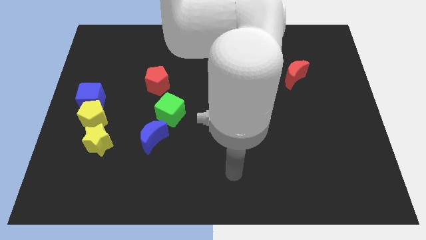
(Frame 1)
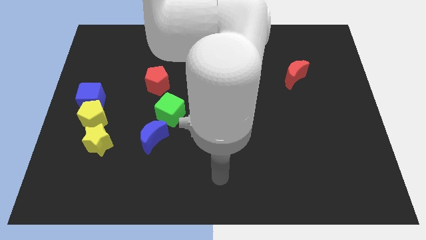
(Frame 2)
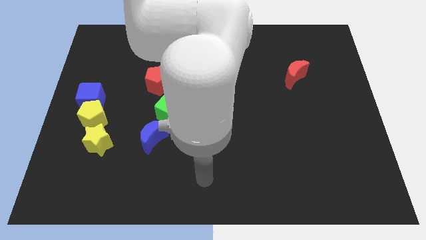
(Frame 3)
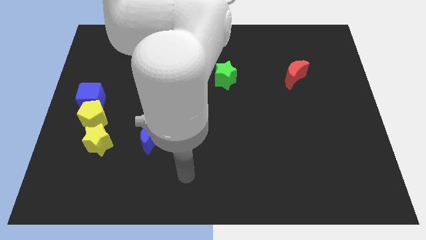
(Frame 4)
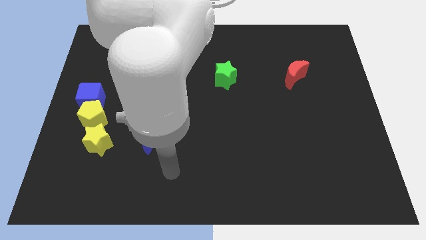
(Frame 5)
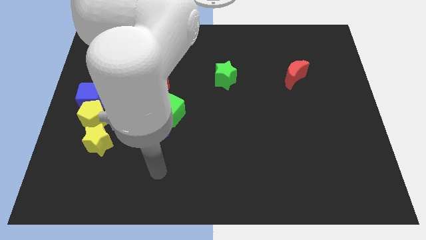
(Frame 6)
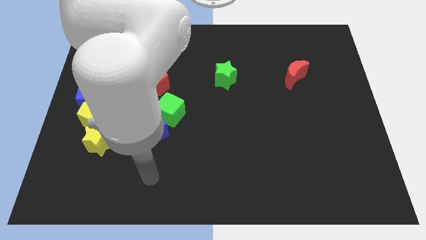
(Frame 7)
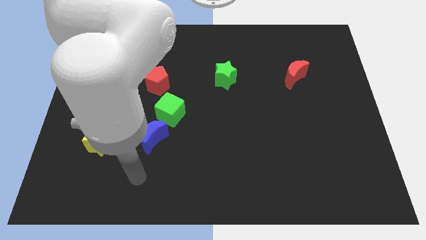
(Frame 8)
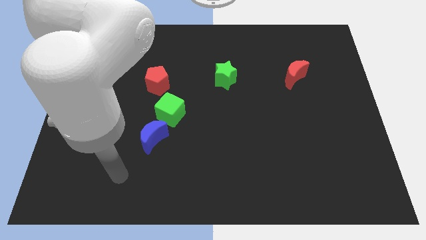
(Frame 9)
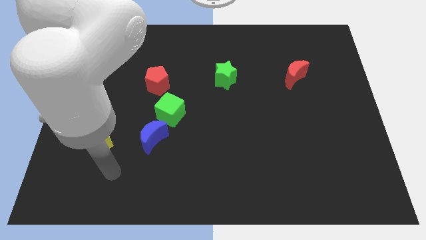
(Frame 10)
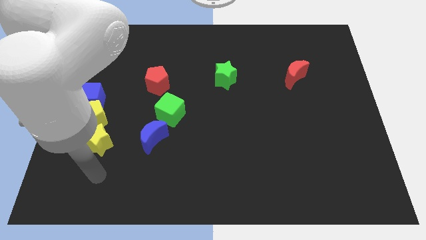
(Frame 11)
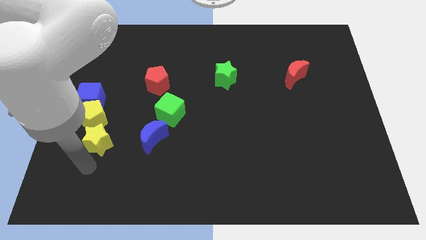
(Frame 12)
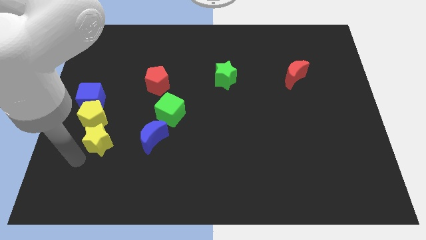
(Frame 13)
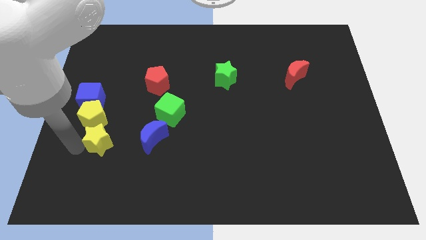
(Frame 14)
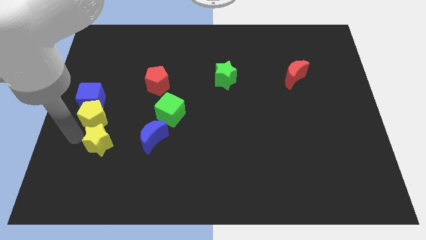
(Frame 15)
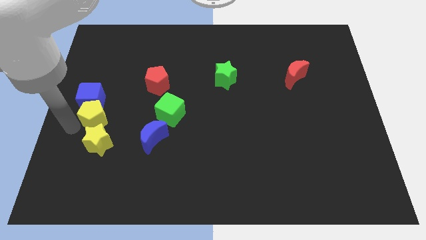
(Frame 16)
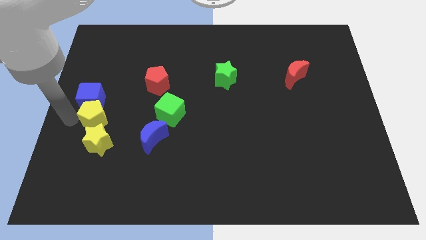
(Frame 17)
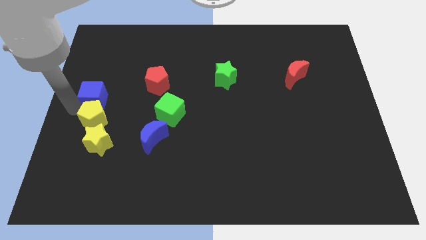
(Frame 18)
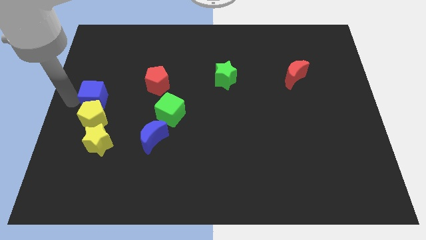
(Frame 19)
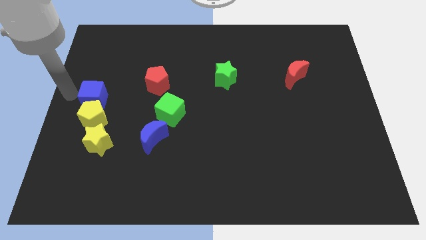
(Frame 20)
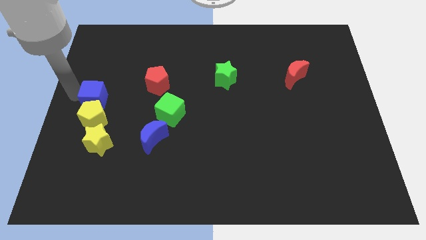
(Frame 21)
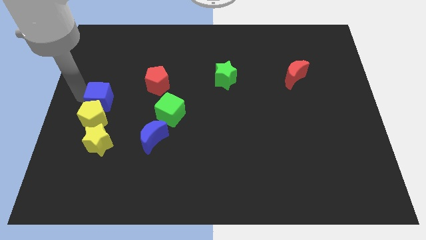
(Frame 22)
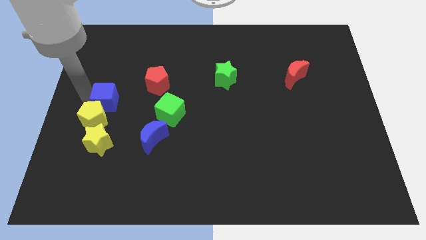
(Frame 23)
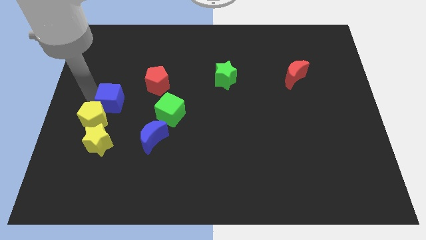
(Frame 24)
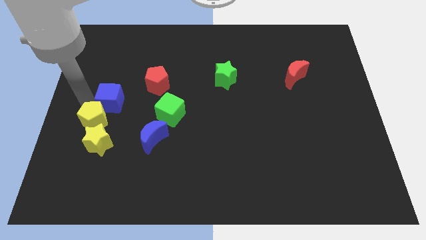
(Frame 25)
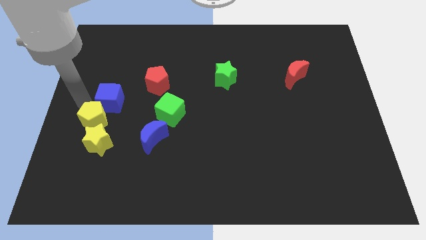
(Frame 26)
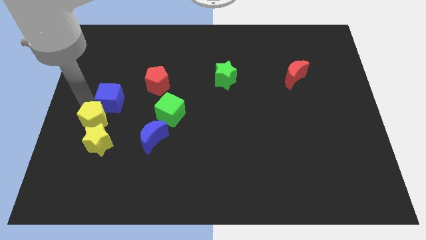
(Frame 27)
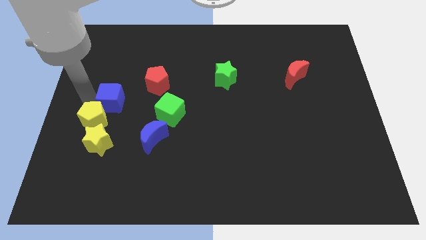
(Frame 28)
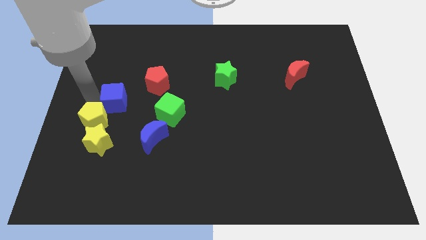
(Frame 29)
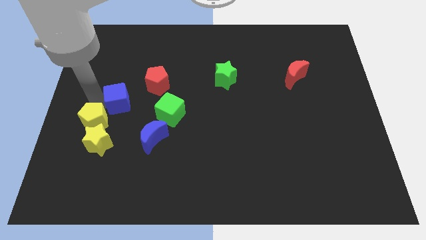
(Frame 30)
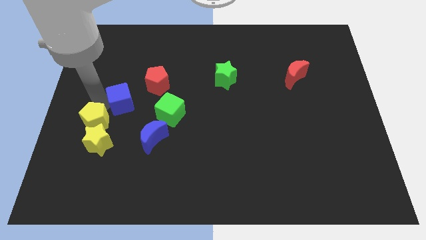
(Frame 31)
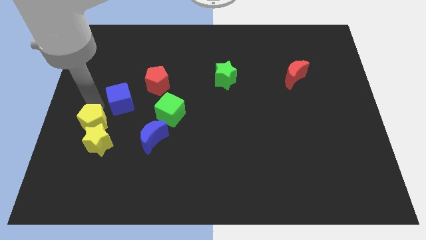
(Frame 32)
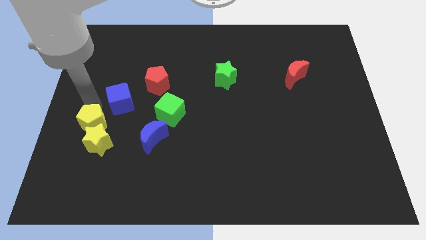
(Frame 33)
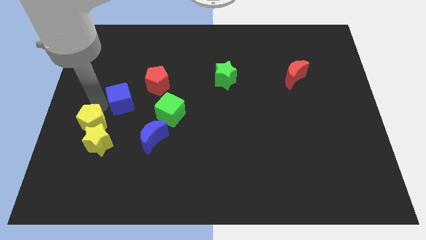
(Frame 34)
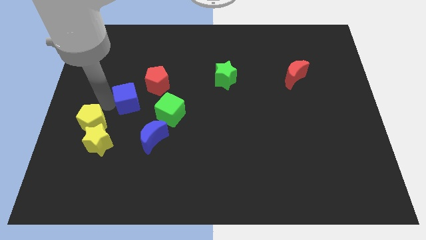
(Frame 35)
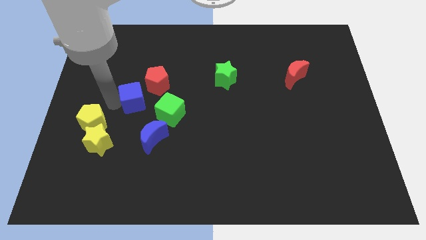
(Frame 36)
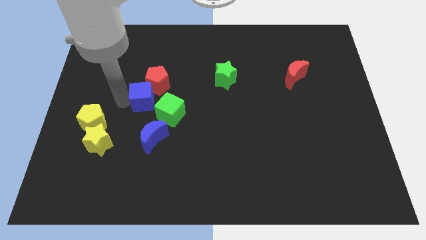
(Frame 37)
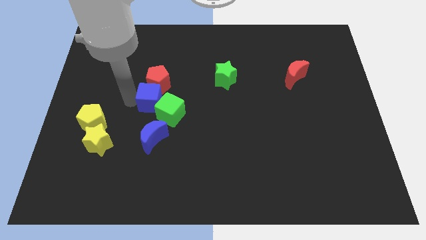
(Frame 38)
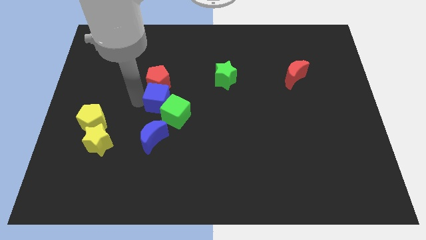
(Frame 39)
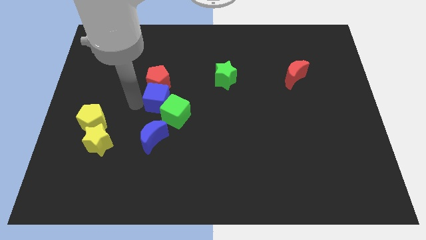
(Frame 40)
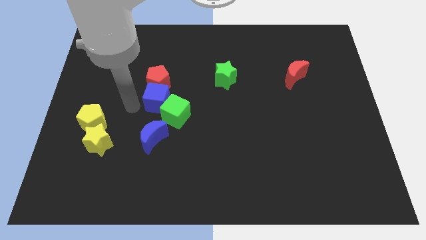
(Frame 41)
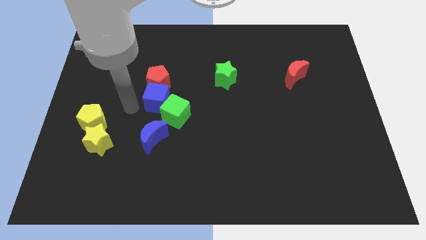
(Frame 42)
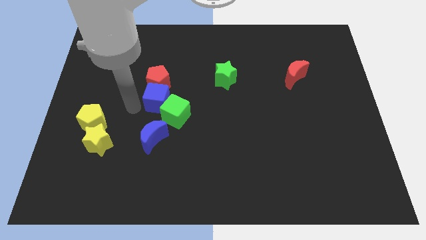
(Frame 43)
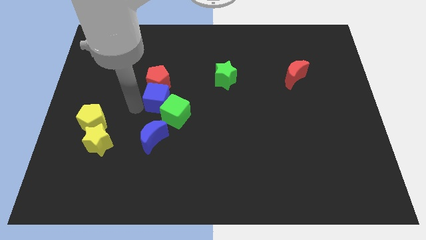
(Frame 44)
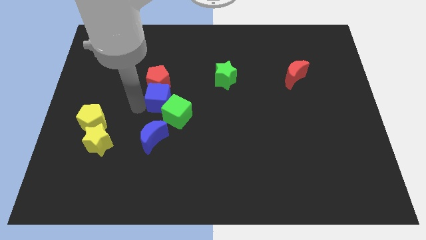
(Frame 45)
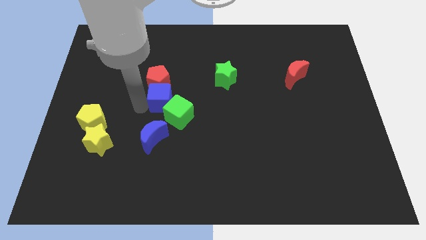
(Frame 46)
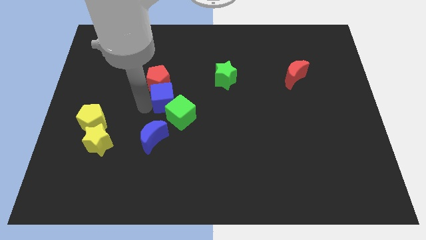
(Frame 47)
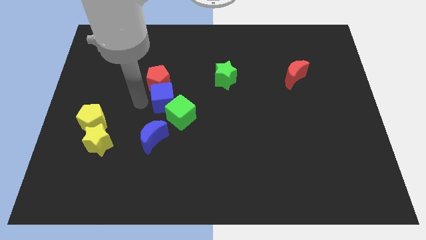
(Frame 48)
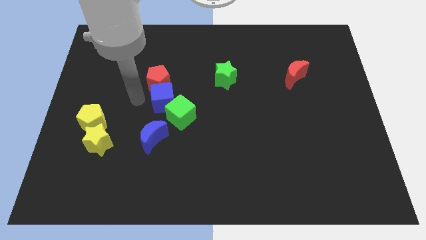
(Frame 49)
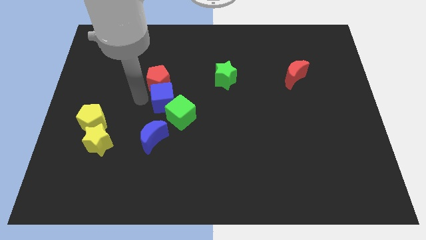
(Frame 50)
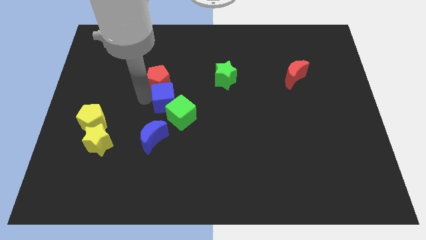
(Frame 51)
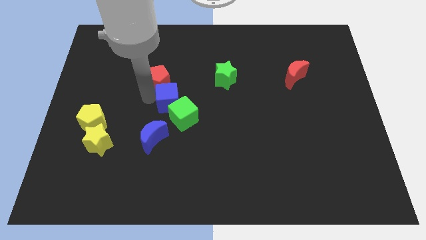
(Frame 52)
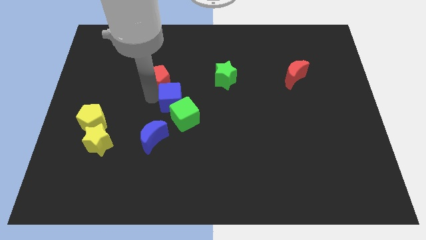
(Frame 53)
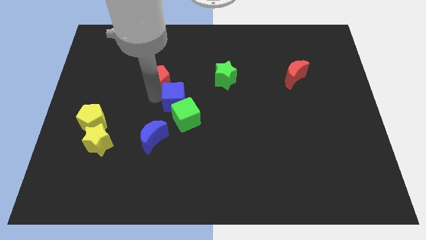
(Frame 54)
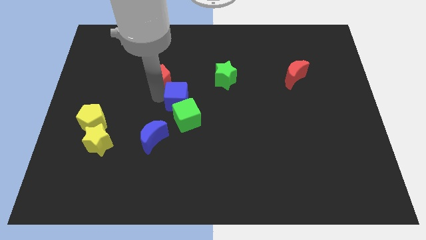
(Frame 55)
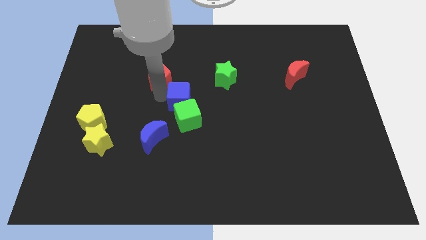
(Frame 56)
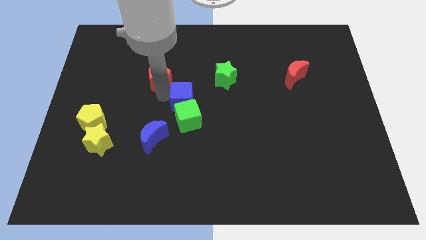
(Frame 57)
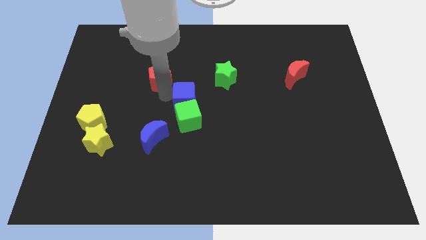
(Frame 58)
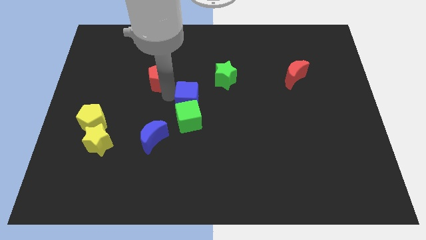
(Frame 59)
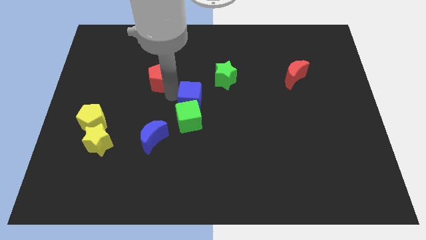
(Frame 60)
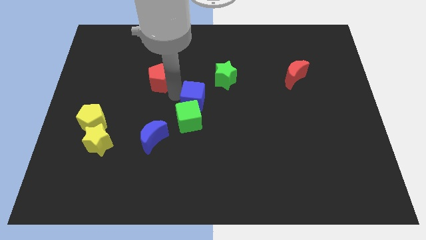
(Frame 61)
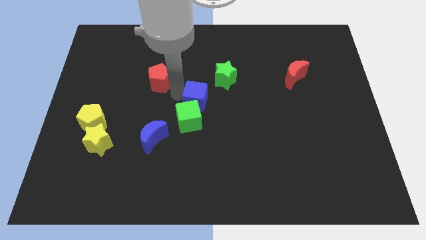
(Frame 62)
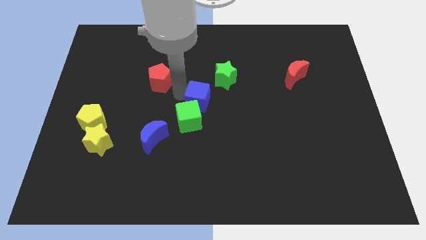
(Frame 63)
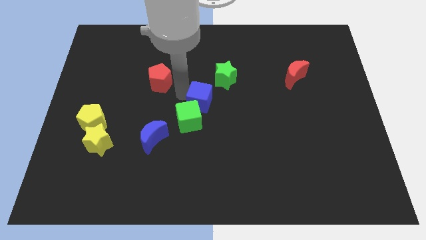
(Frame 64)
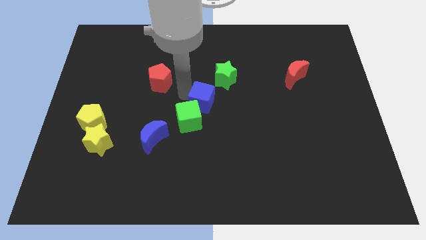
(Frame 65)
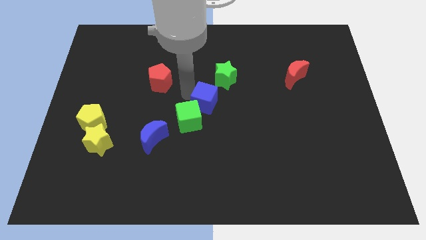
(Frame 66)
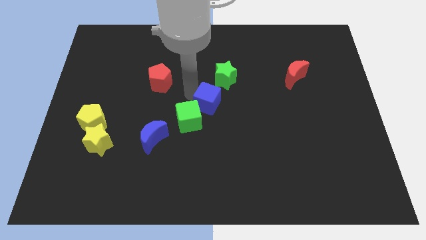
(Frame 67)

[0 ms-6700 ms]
slide the blue cube to the bottom of the green star
